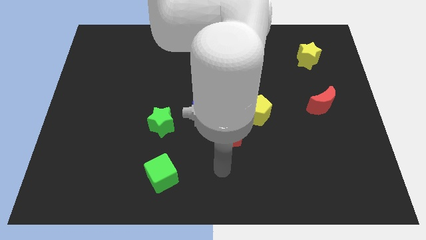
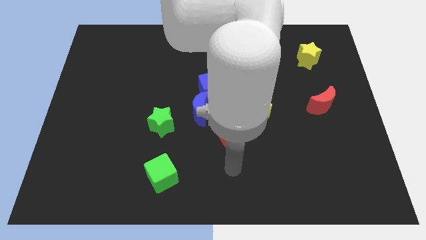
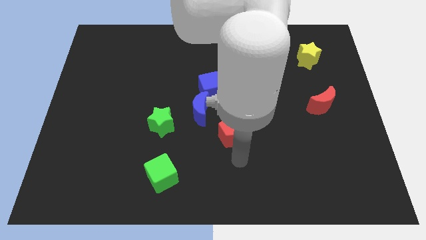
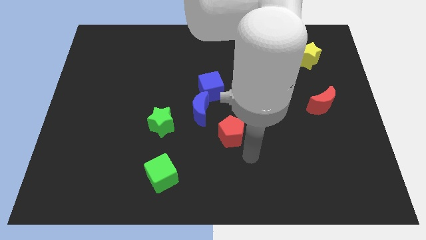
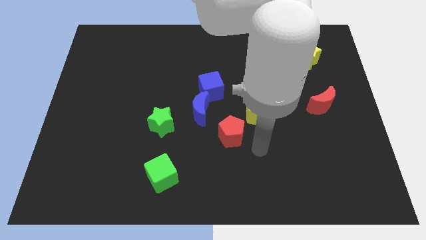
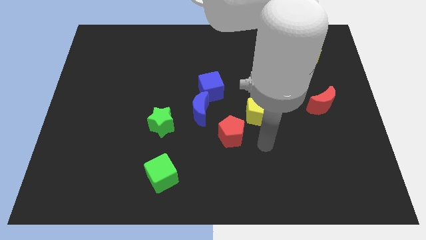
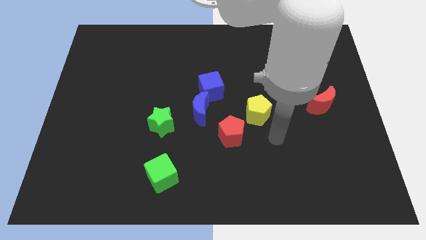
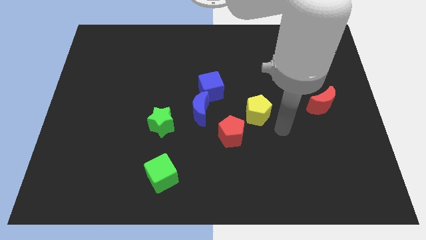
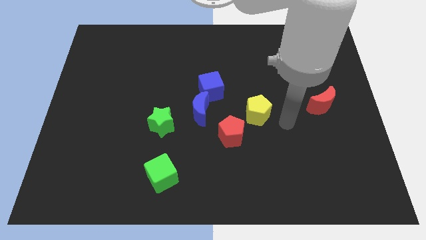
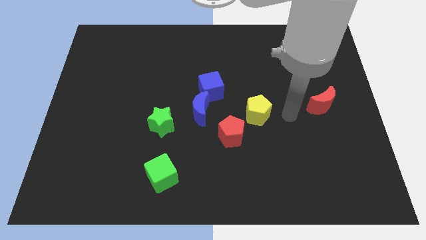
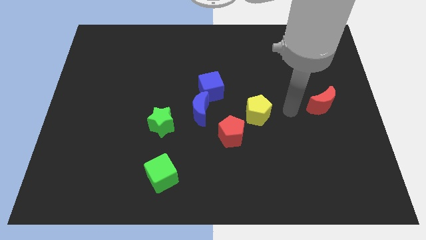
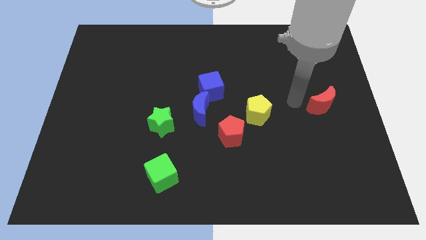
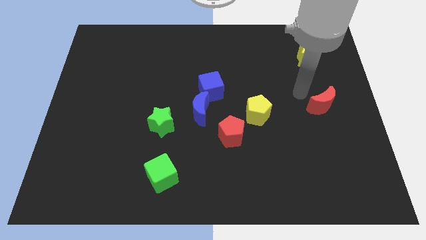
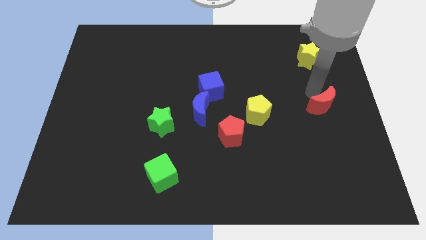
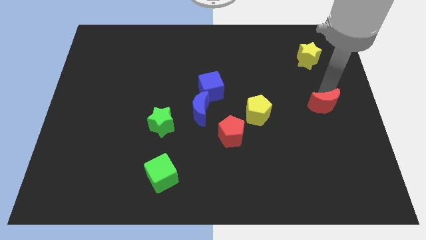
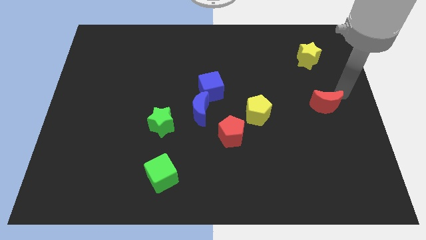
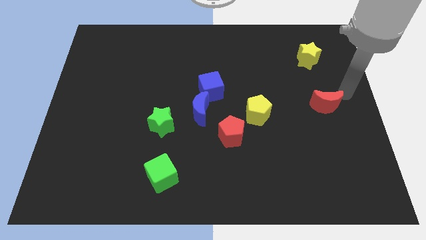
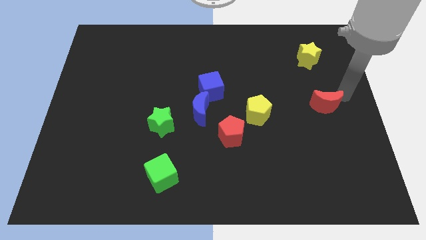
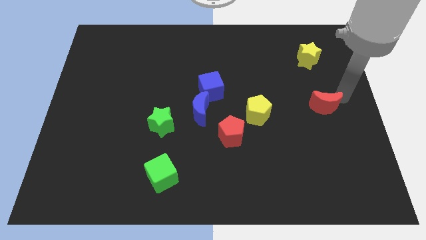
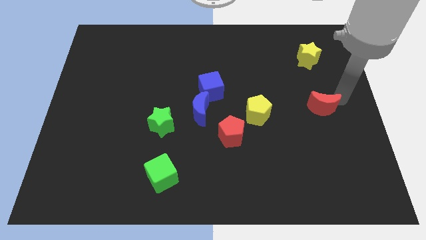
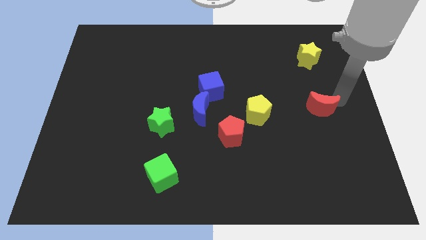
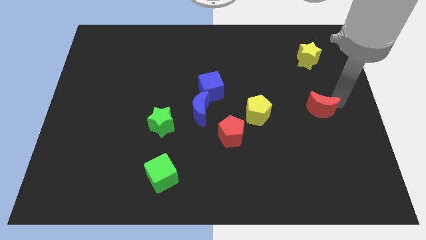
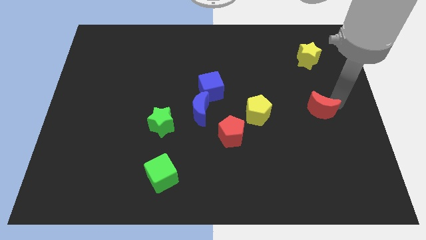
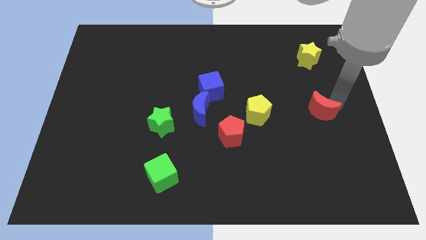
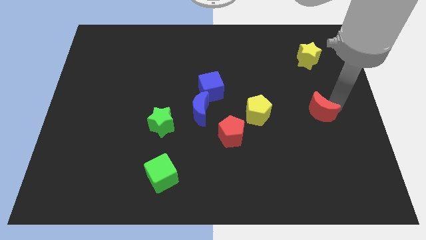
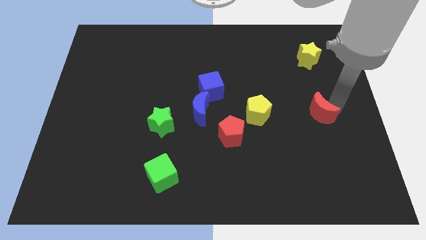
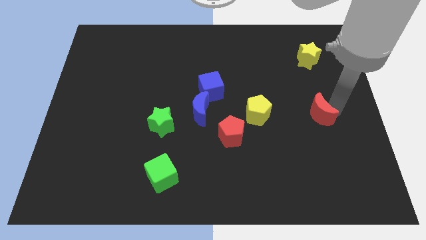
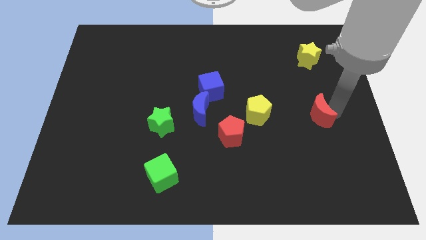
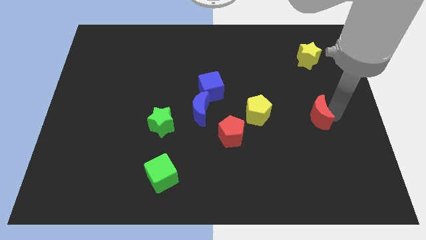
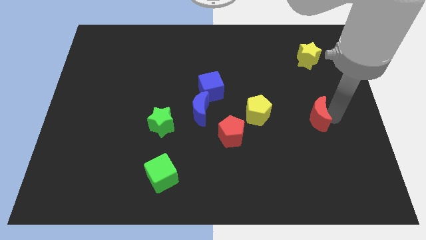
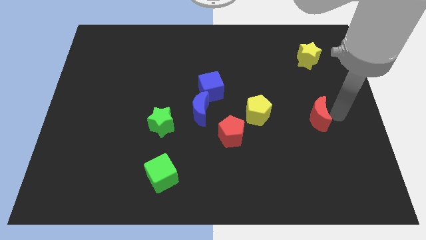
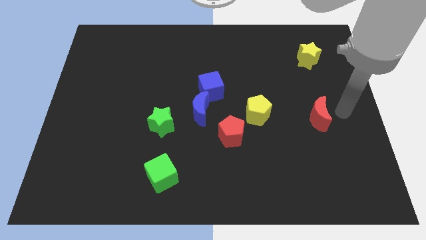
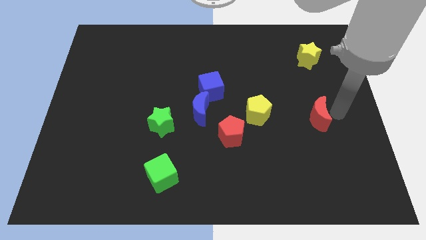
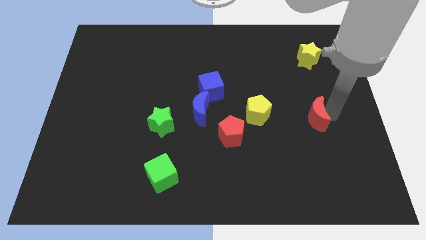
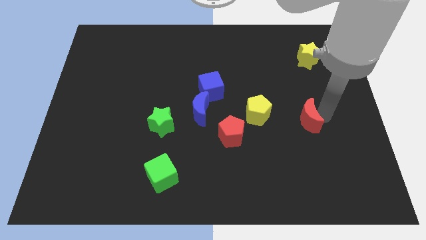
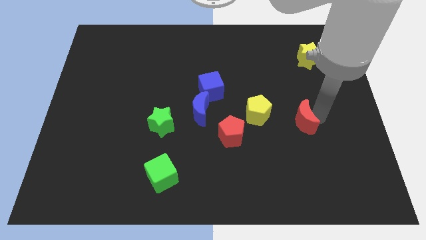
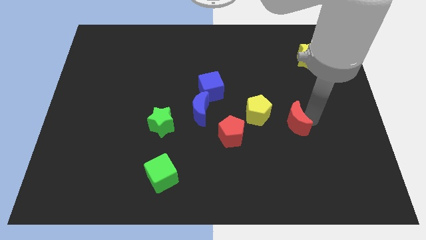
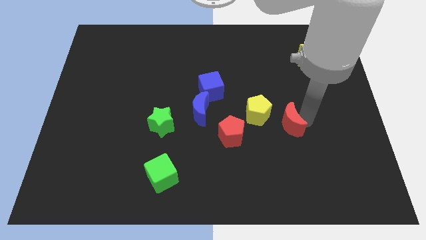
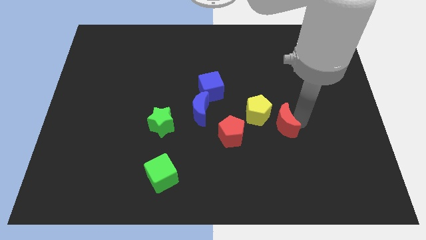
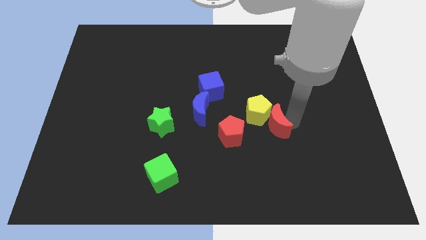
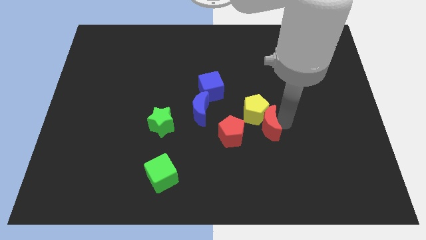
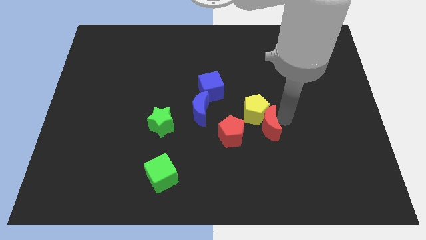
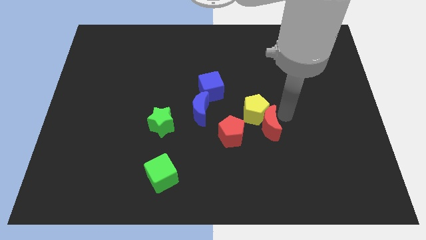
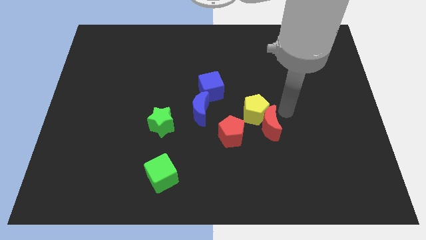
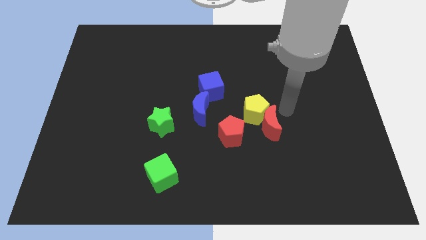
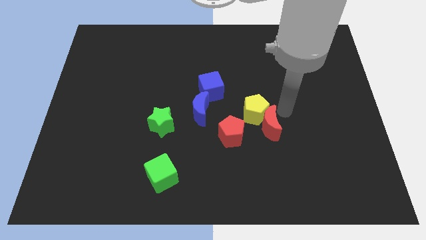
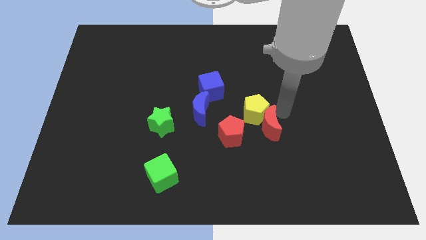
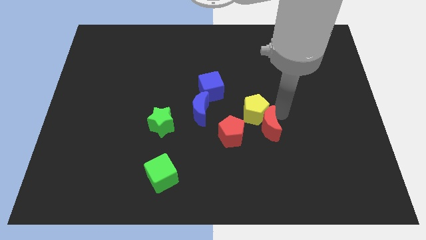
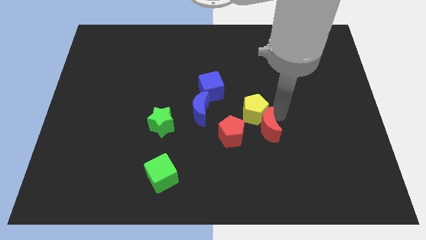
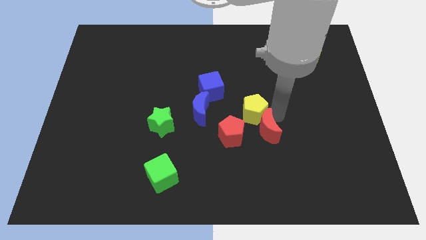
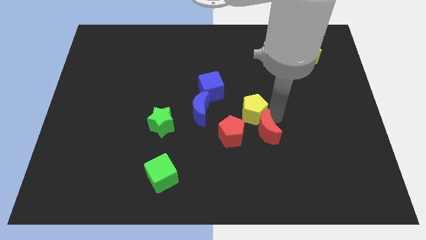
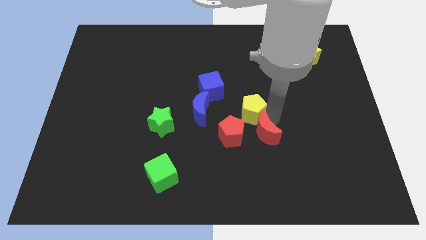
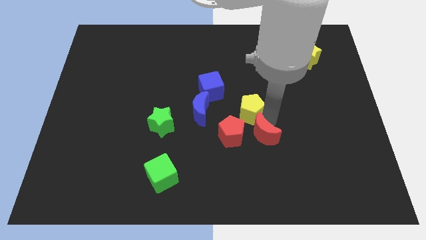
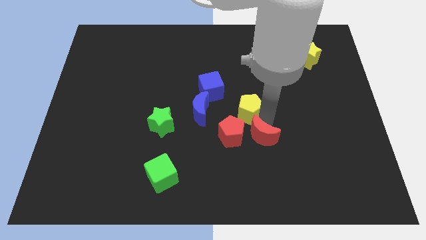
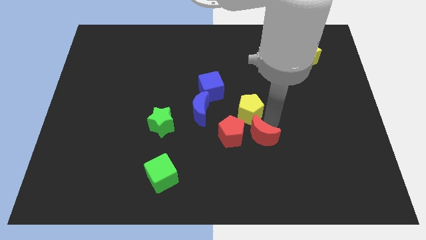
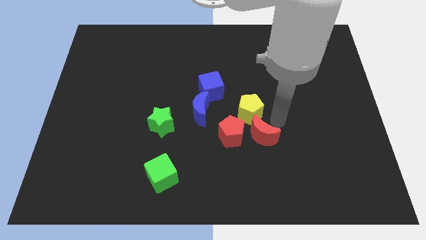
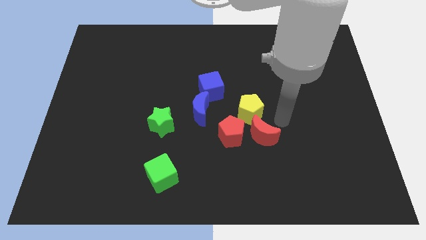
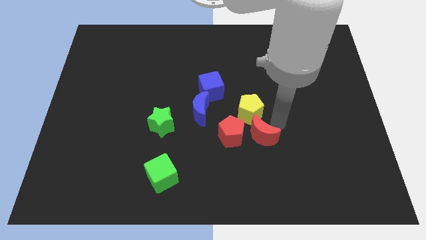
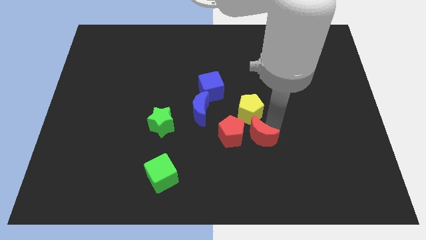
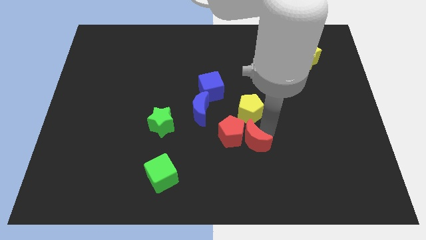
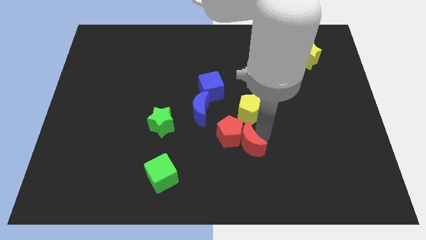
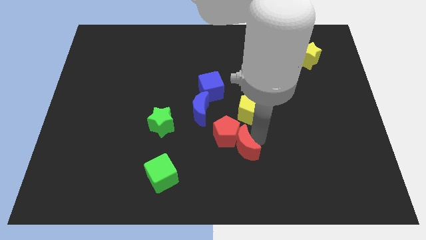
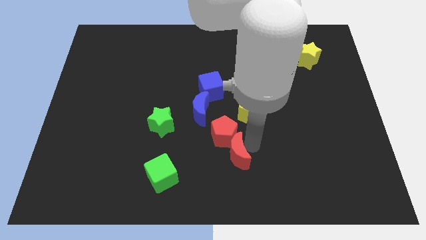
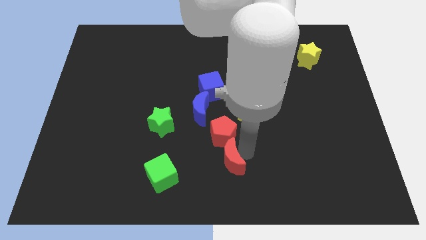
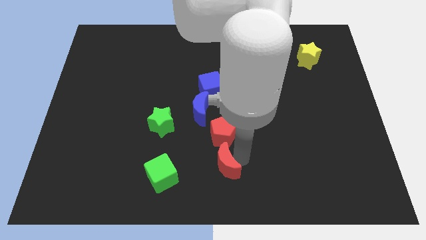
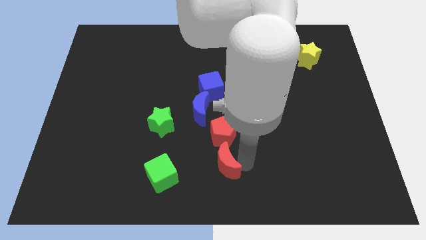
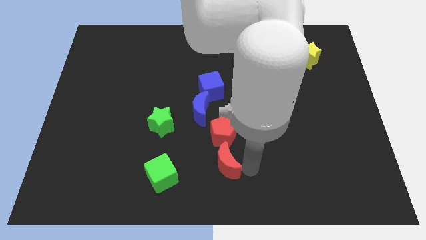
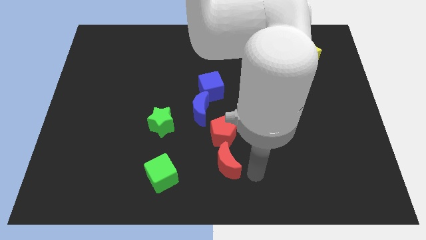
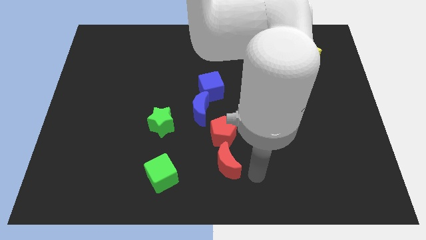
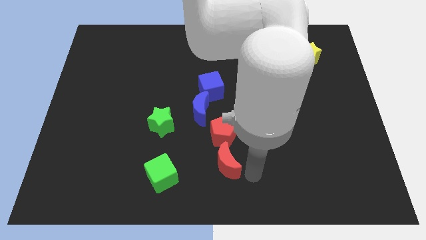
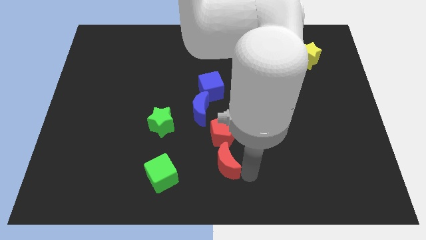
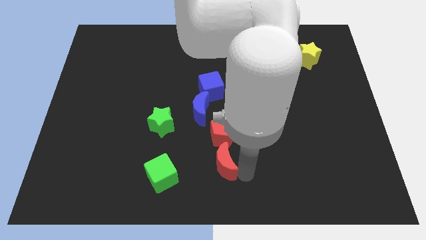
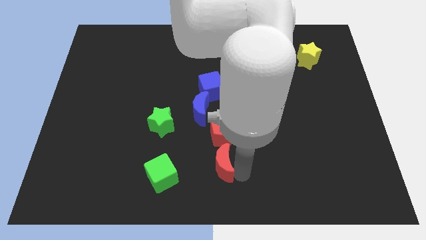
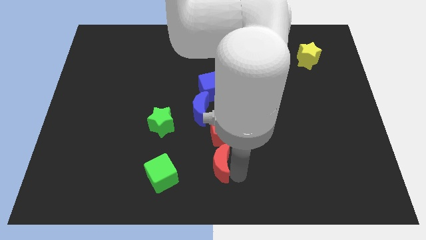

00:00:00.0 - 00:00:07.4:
push the red moon to the bottom left of the red pentagon
